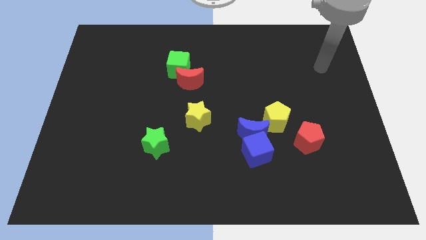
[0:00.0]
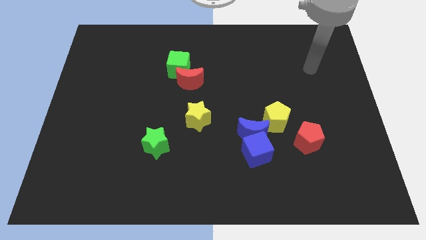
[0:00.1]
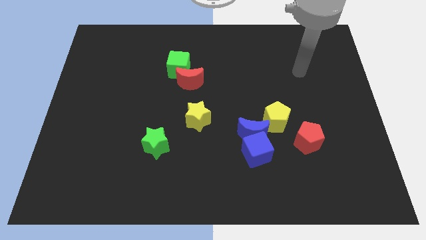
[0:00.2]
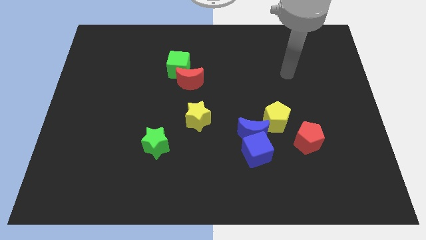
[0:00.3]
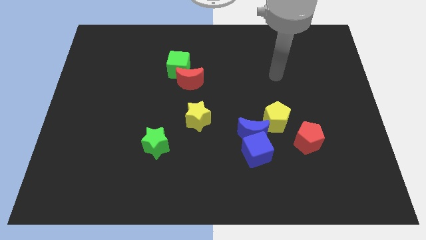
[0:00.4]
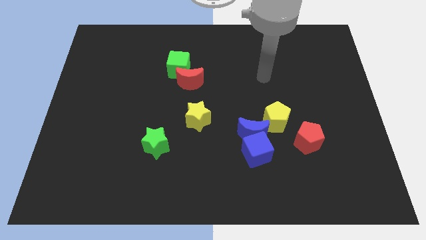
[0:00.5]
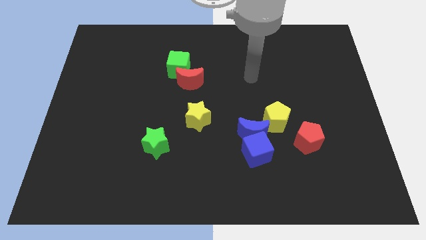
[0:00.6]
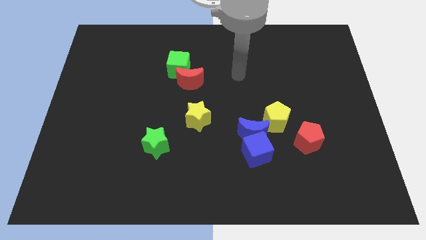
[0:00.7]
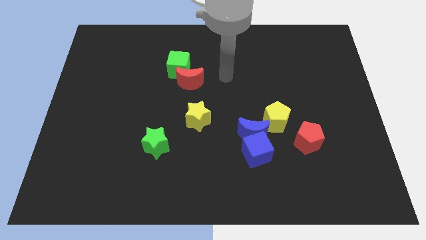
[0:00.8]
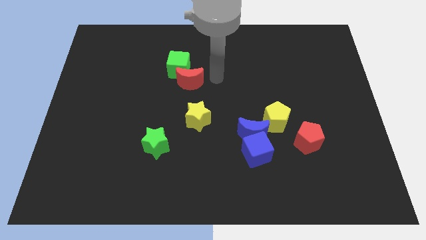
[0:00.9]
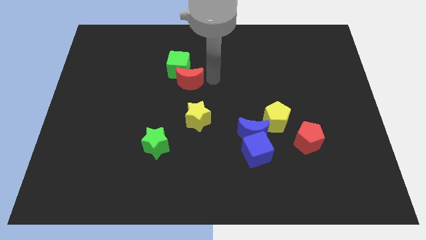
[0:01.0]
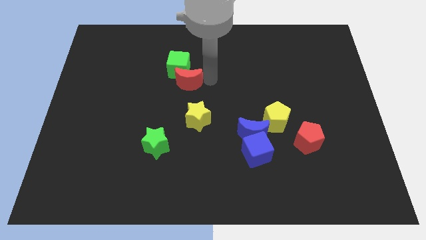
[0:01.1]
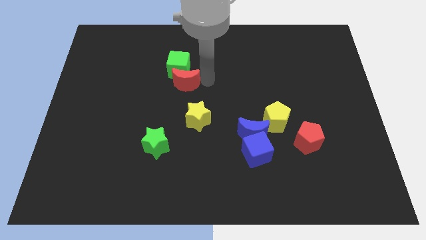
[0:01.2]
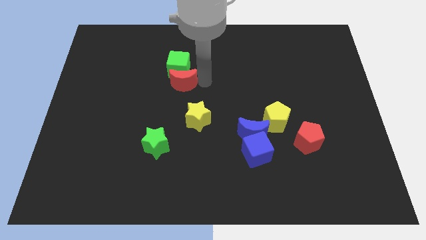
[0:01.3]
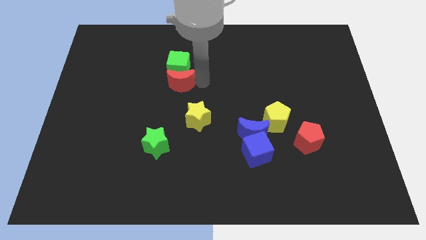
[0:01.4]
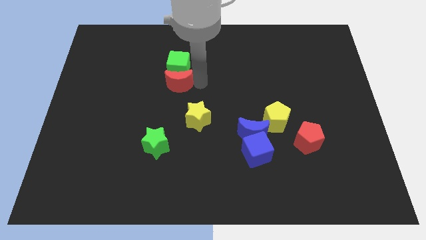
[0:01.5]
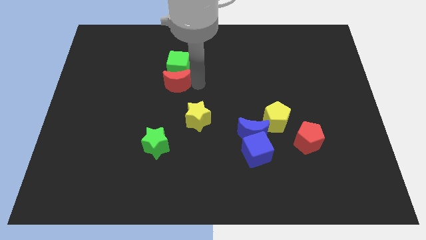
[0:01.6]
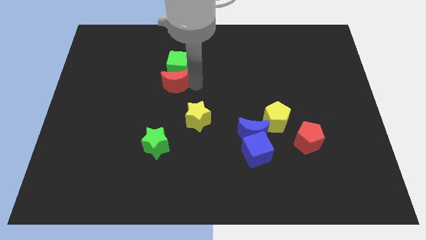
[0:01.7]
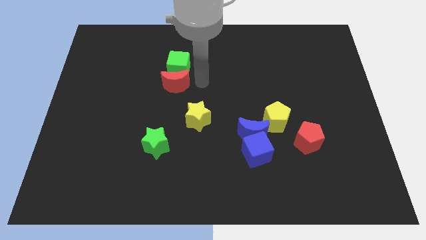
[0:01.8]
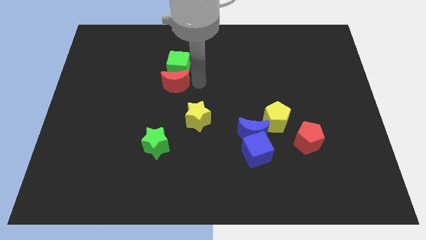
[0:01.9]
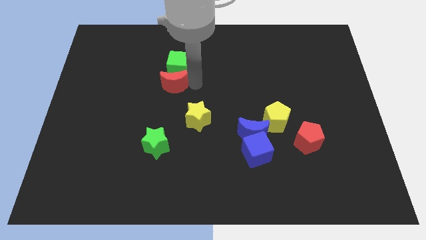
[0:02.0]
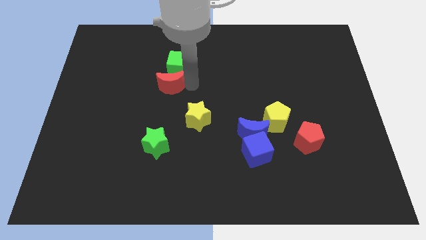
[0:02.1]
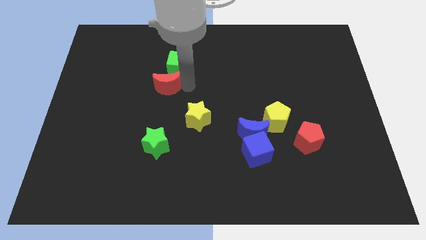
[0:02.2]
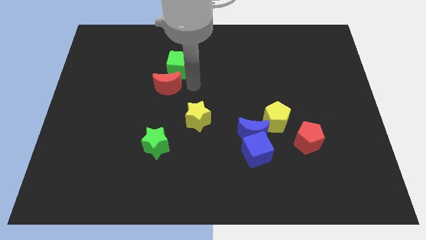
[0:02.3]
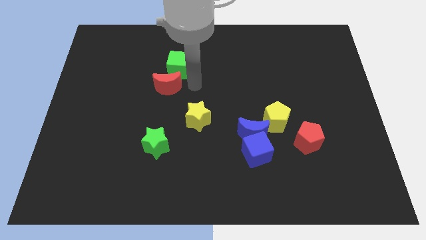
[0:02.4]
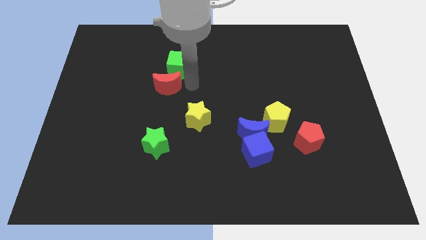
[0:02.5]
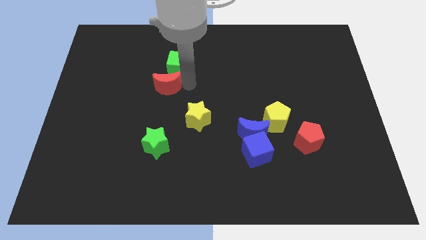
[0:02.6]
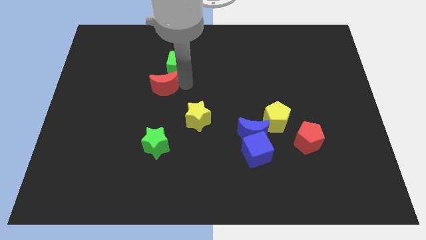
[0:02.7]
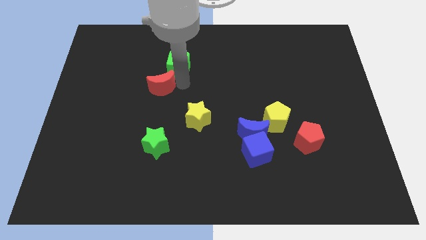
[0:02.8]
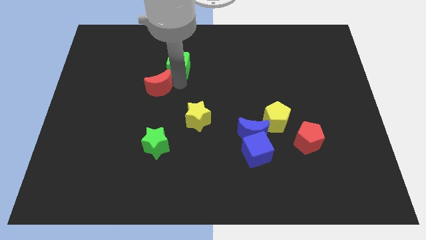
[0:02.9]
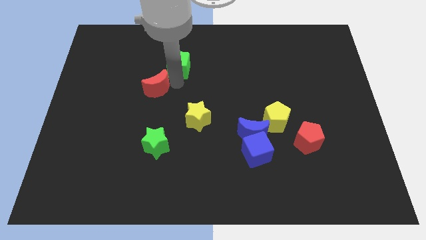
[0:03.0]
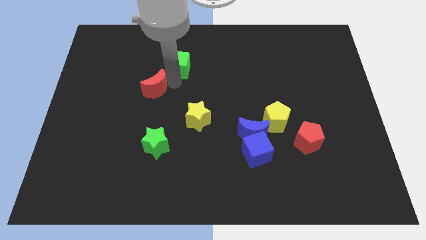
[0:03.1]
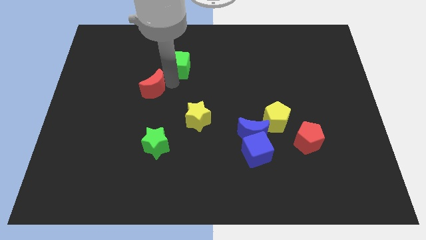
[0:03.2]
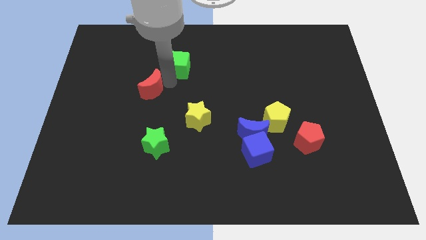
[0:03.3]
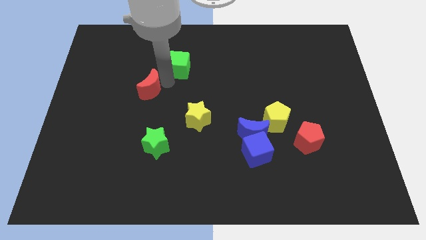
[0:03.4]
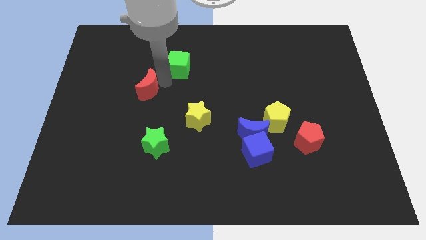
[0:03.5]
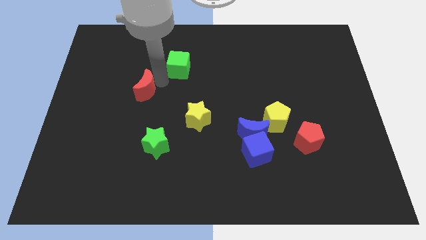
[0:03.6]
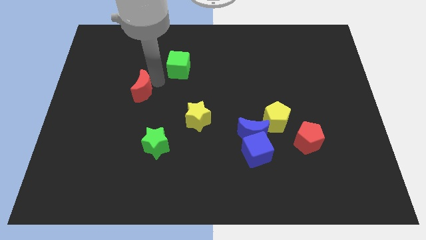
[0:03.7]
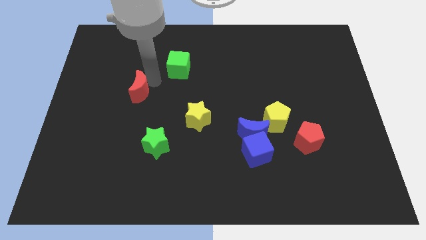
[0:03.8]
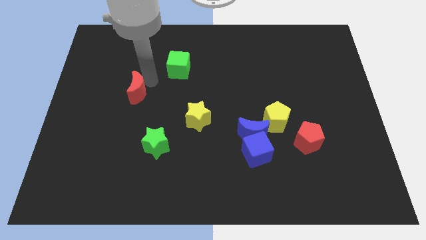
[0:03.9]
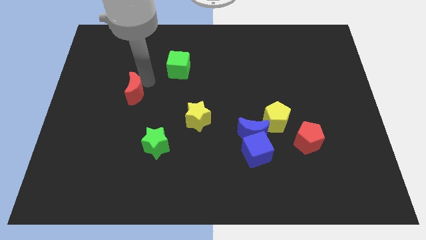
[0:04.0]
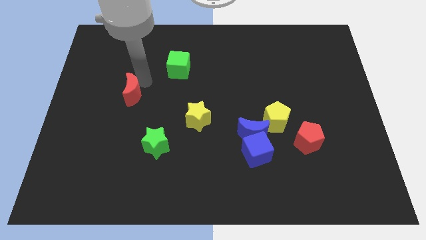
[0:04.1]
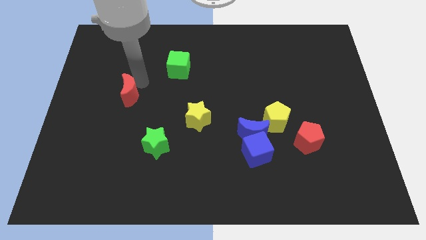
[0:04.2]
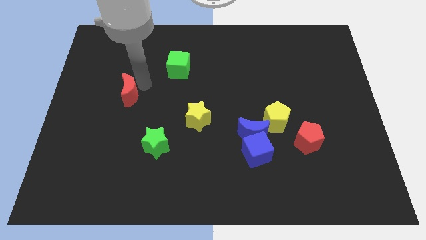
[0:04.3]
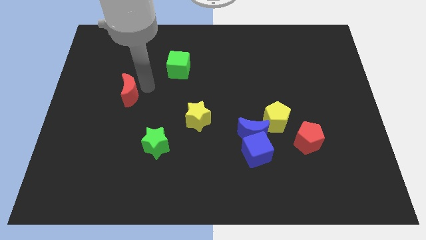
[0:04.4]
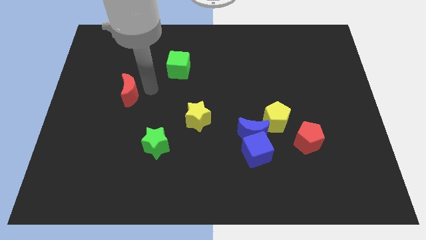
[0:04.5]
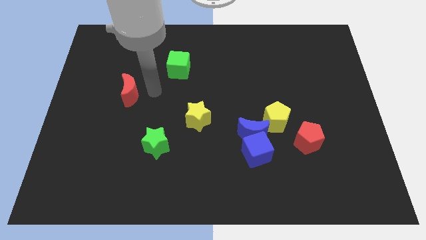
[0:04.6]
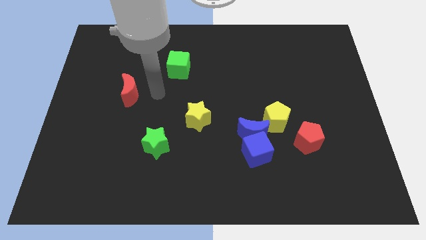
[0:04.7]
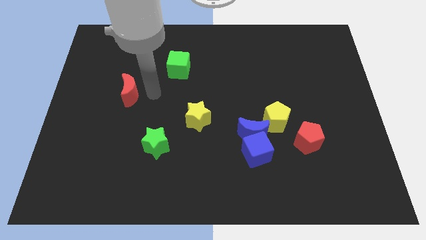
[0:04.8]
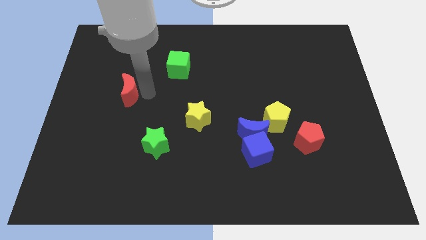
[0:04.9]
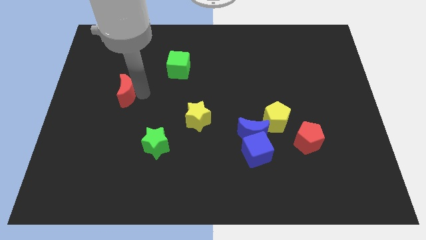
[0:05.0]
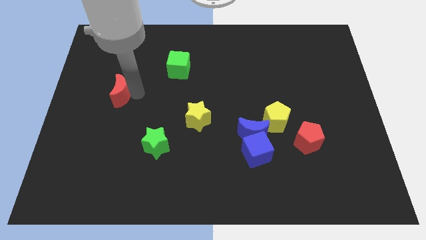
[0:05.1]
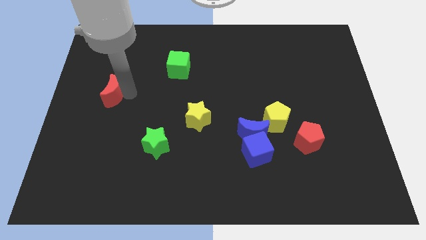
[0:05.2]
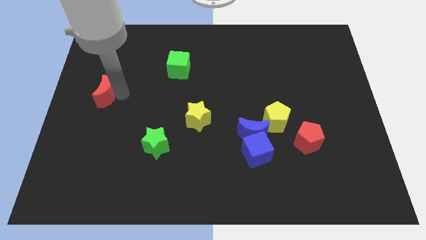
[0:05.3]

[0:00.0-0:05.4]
slide the red moon to the left side of the board

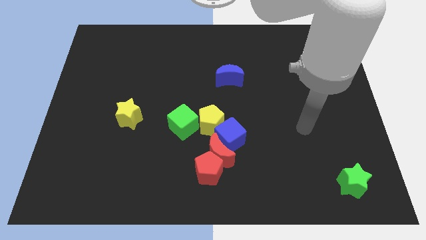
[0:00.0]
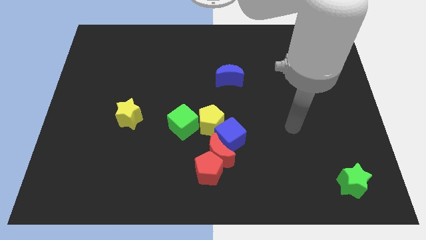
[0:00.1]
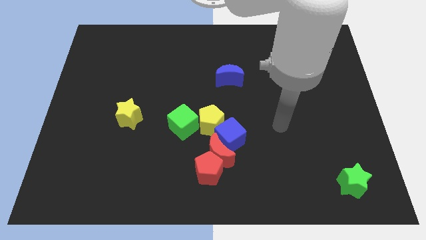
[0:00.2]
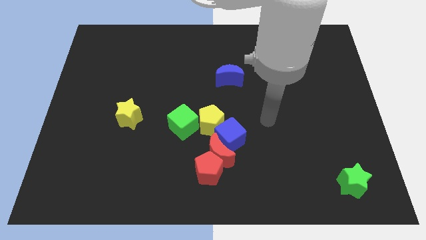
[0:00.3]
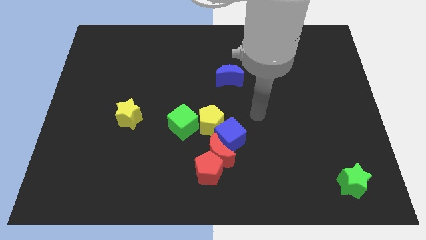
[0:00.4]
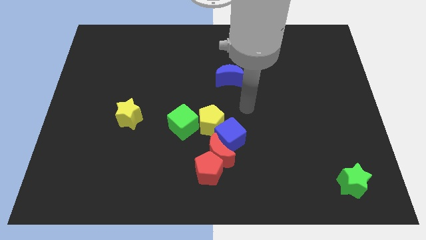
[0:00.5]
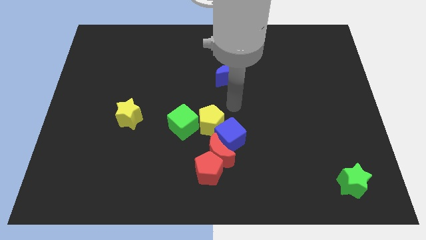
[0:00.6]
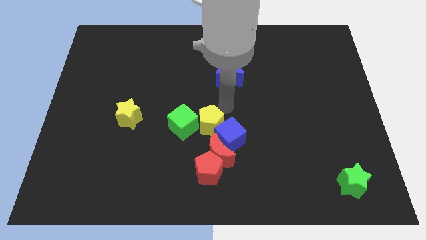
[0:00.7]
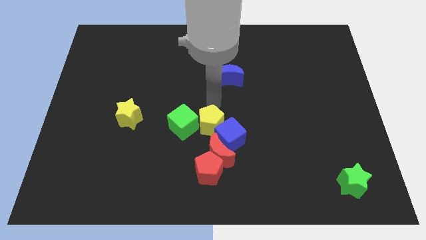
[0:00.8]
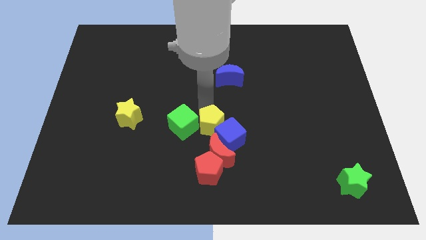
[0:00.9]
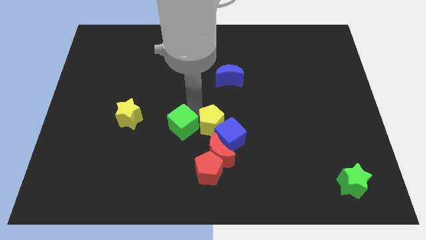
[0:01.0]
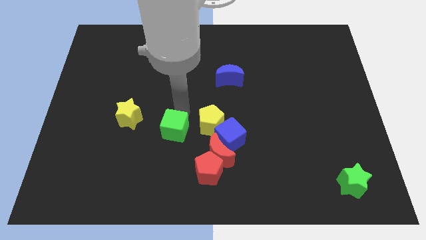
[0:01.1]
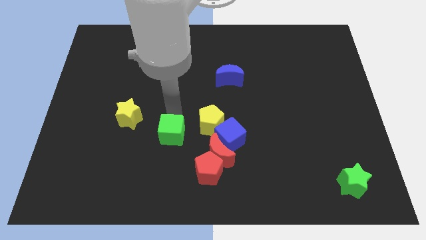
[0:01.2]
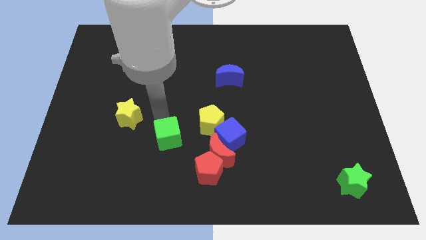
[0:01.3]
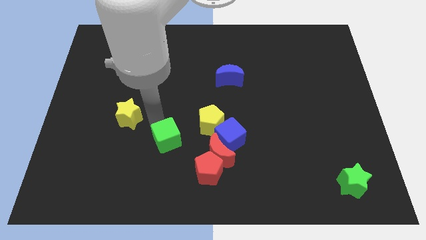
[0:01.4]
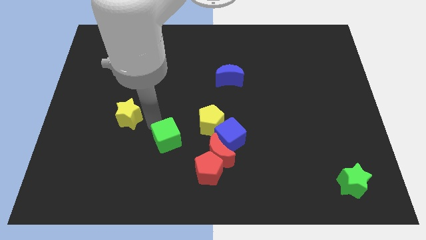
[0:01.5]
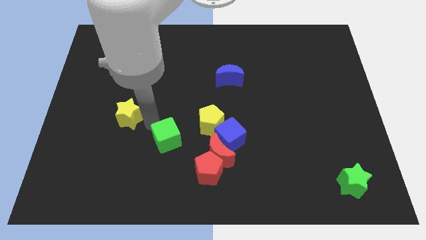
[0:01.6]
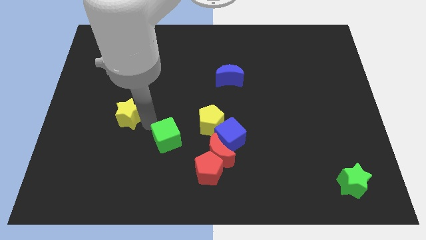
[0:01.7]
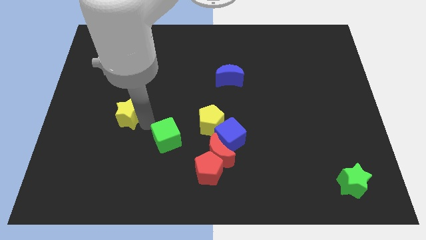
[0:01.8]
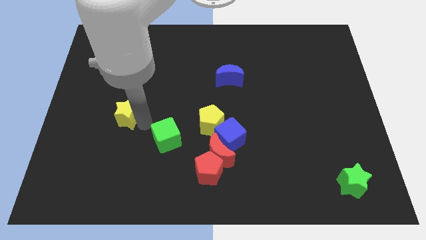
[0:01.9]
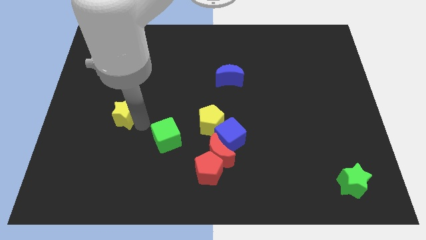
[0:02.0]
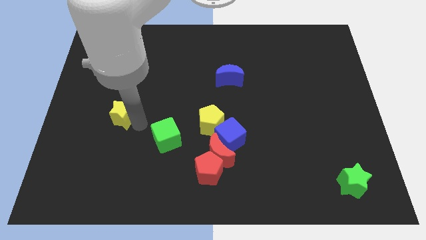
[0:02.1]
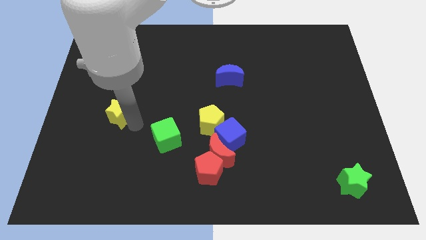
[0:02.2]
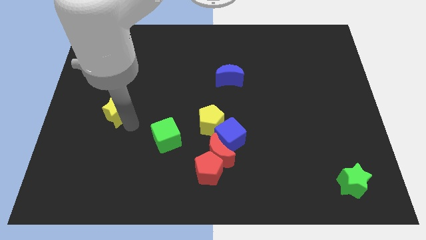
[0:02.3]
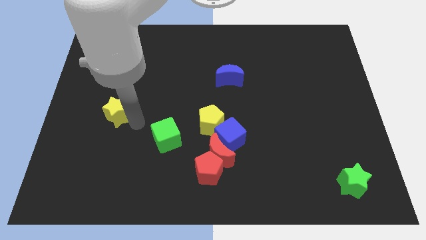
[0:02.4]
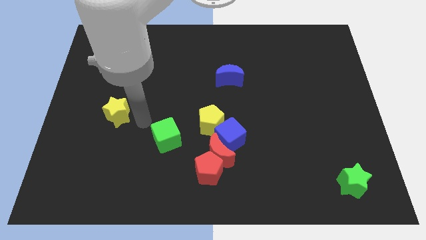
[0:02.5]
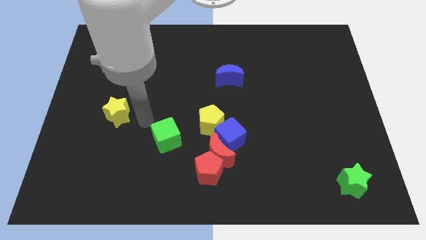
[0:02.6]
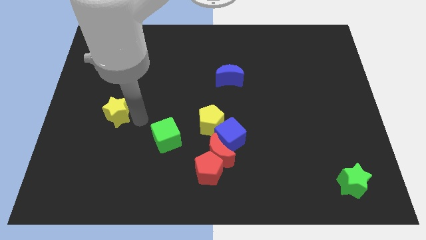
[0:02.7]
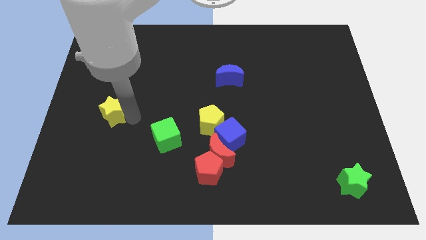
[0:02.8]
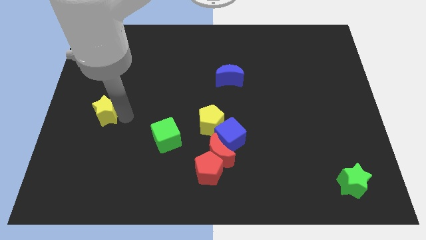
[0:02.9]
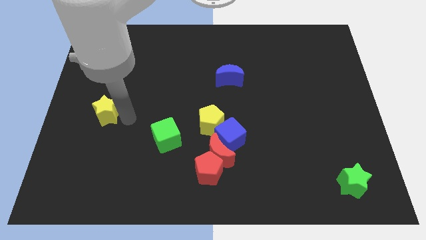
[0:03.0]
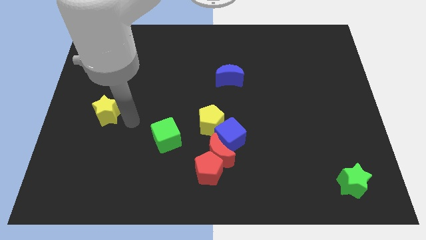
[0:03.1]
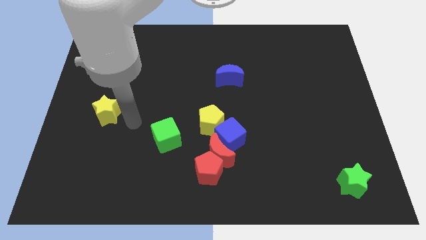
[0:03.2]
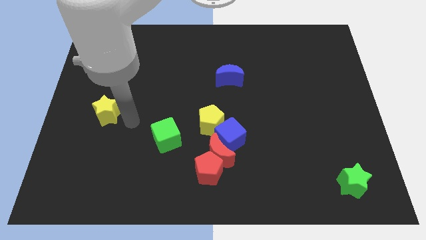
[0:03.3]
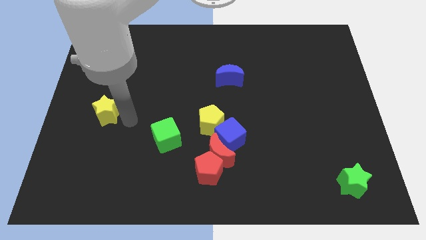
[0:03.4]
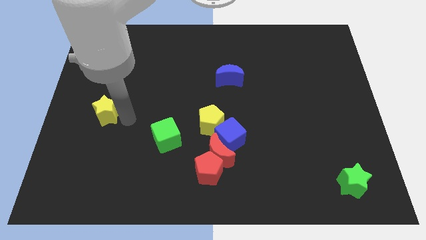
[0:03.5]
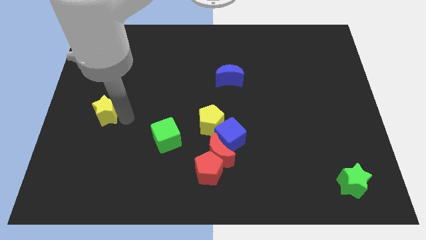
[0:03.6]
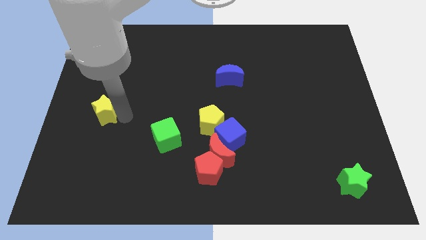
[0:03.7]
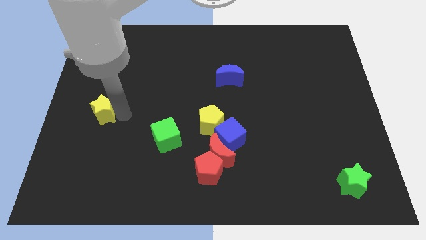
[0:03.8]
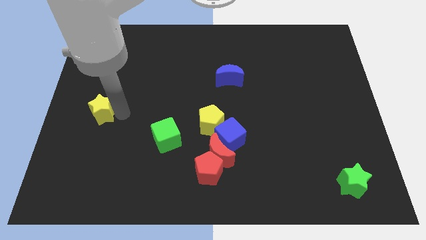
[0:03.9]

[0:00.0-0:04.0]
put the yellow star to the left side
